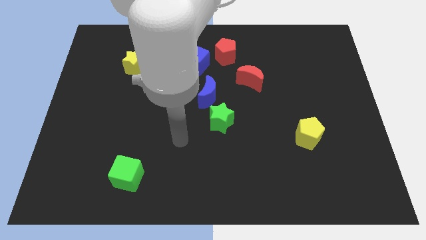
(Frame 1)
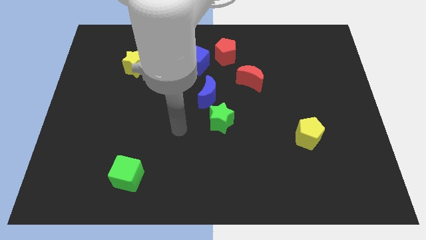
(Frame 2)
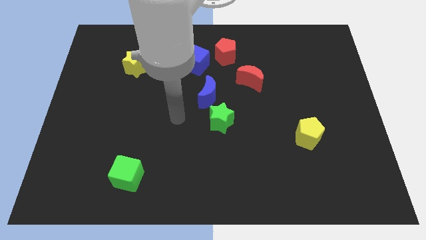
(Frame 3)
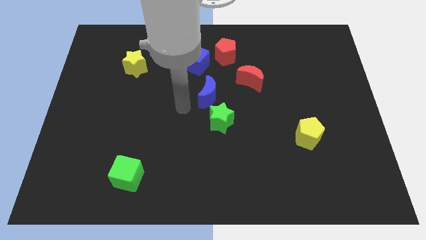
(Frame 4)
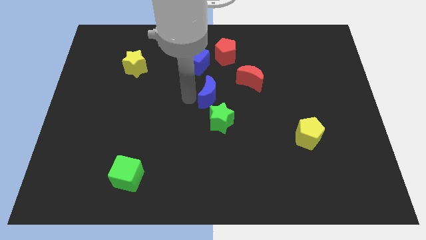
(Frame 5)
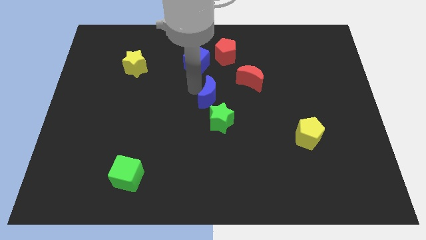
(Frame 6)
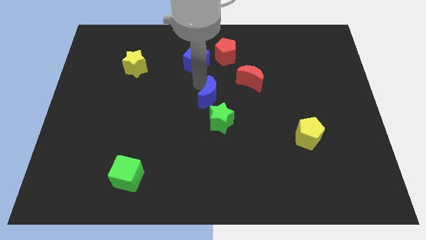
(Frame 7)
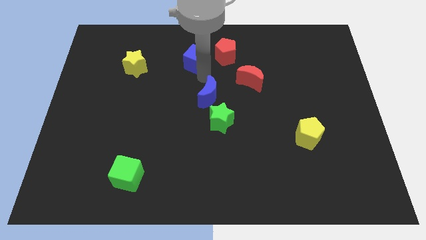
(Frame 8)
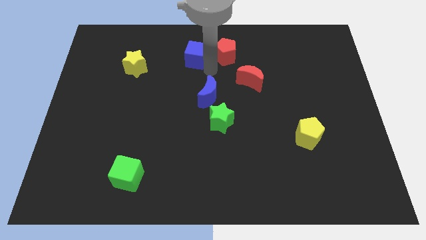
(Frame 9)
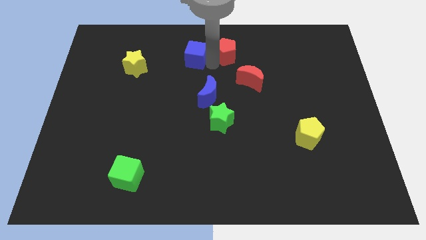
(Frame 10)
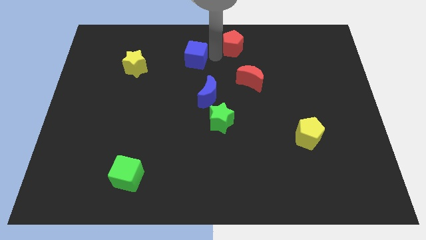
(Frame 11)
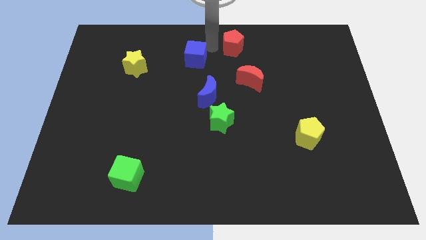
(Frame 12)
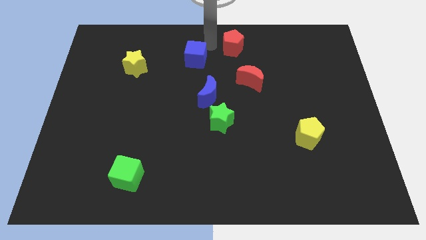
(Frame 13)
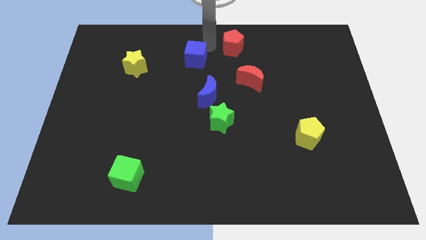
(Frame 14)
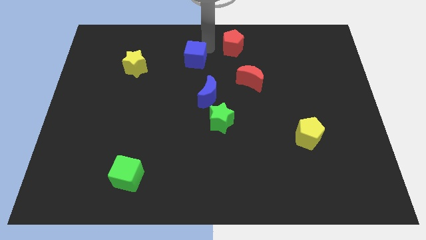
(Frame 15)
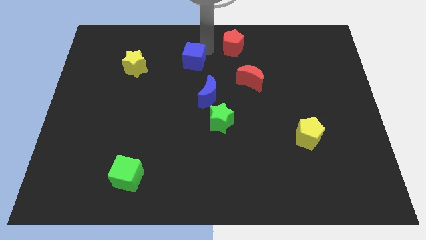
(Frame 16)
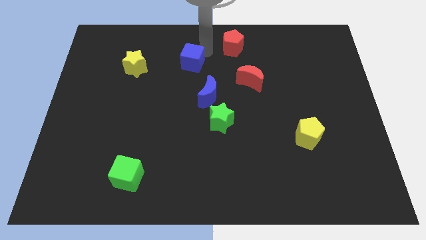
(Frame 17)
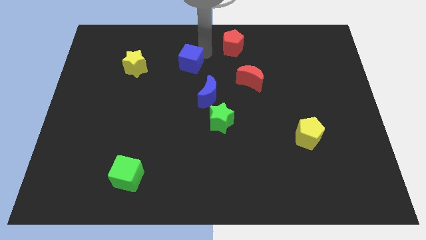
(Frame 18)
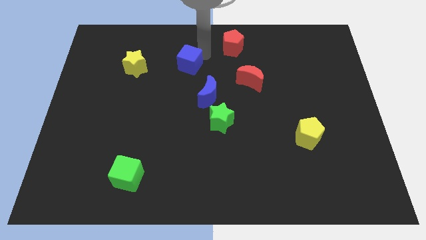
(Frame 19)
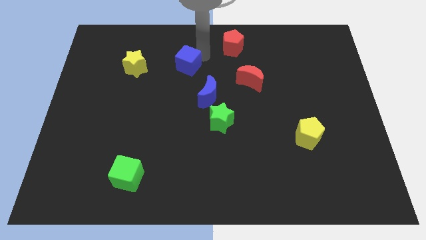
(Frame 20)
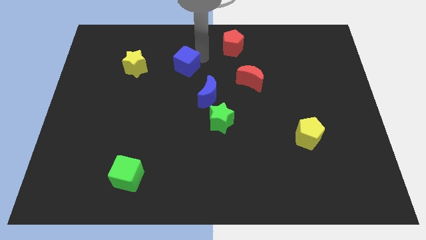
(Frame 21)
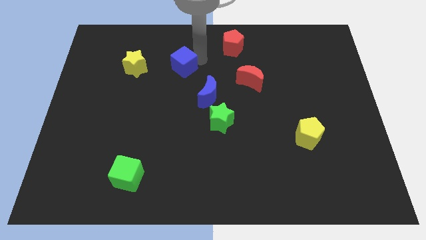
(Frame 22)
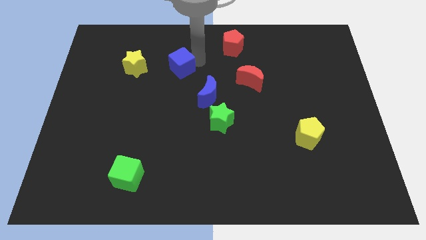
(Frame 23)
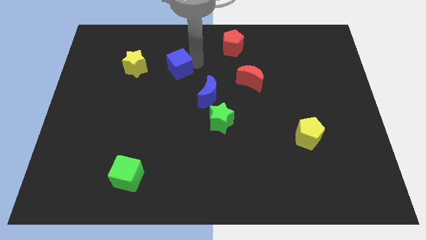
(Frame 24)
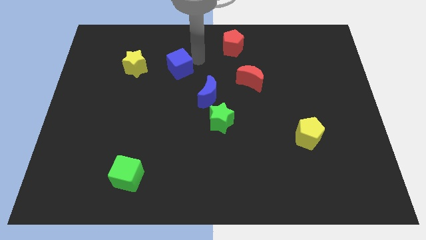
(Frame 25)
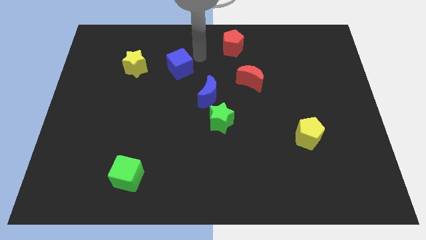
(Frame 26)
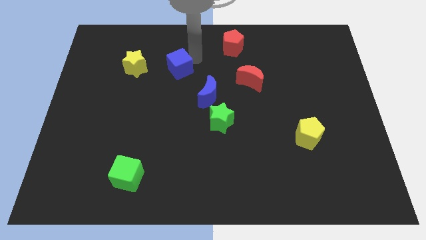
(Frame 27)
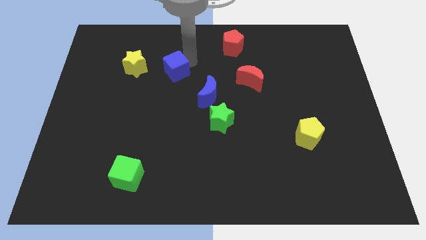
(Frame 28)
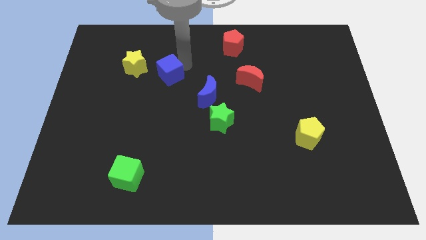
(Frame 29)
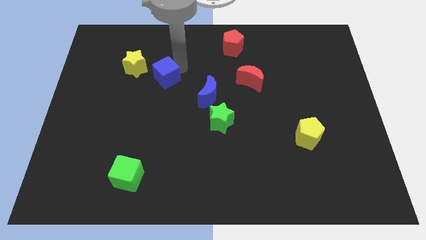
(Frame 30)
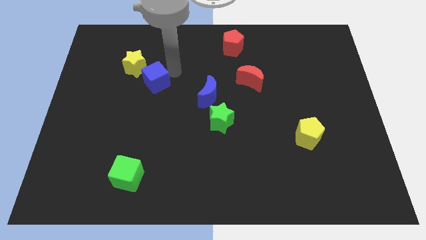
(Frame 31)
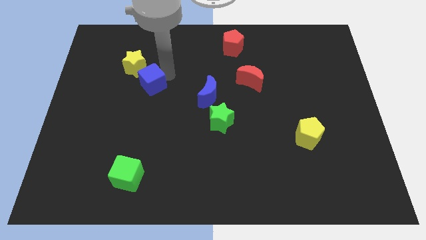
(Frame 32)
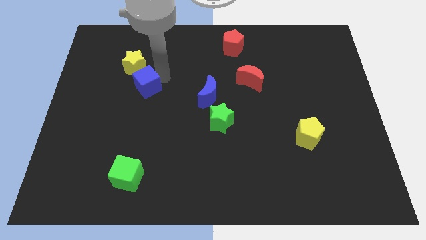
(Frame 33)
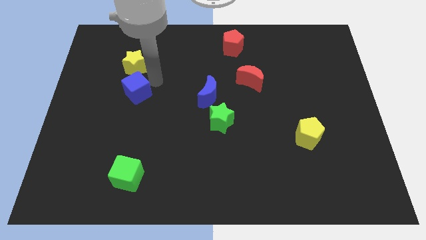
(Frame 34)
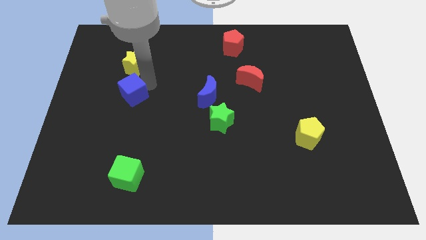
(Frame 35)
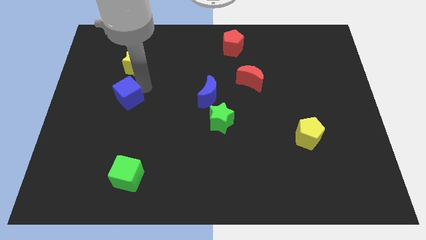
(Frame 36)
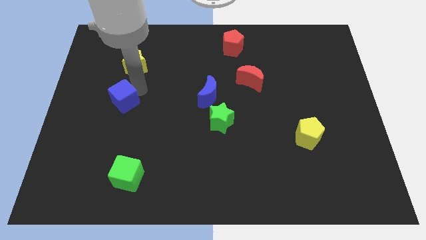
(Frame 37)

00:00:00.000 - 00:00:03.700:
move the blue cube down and to the left diagonally

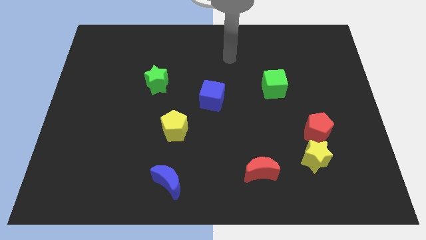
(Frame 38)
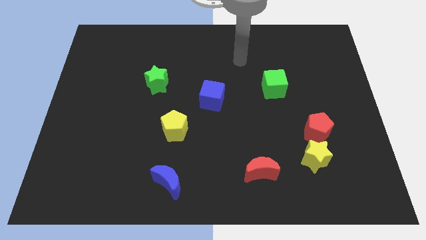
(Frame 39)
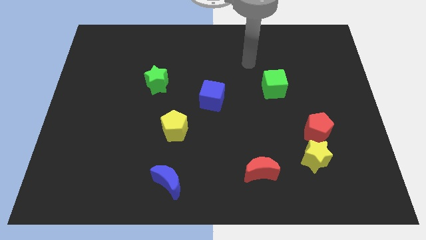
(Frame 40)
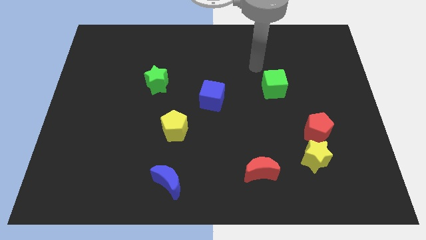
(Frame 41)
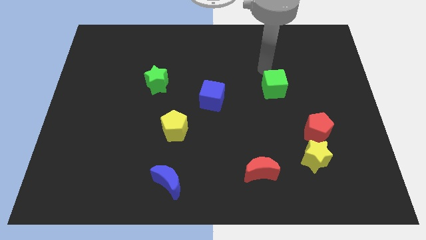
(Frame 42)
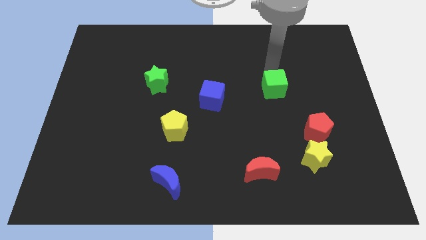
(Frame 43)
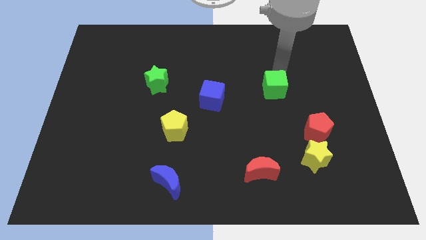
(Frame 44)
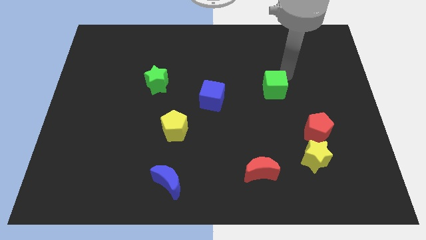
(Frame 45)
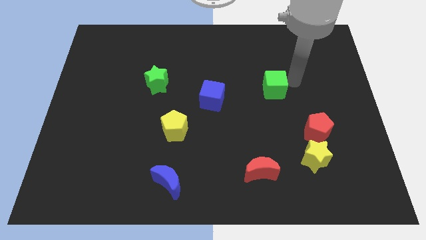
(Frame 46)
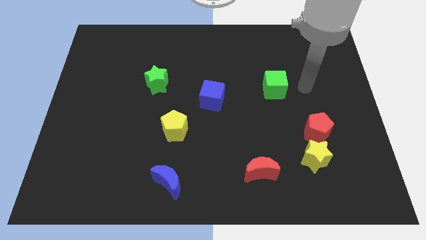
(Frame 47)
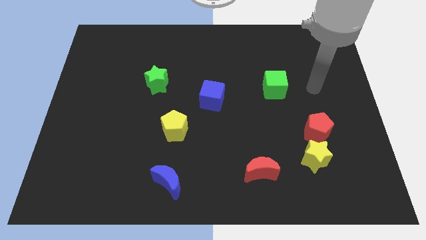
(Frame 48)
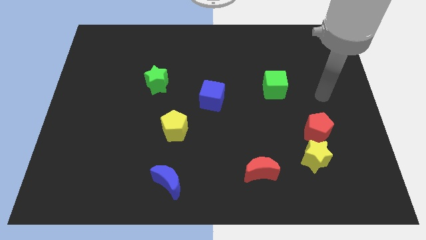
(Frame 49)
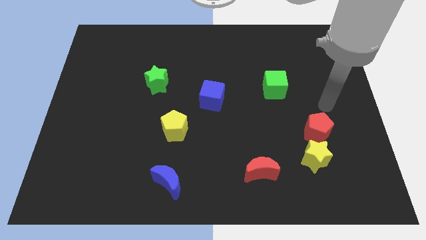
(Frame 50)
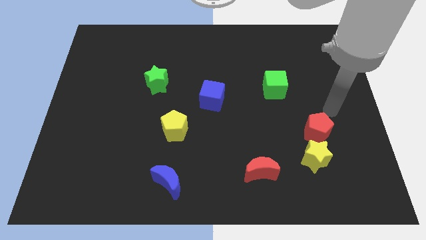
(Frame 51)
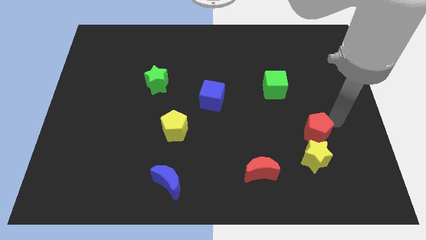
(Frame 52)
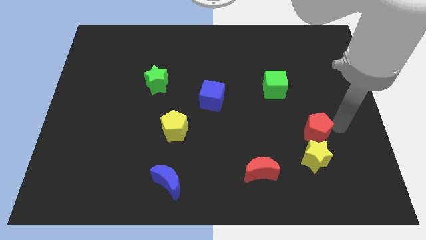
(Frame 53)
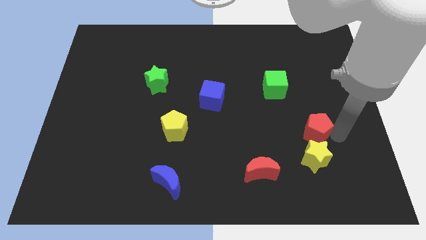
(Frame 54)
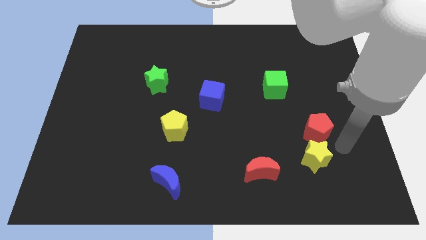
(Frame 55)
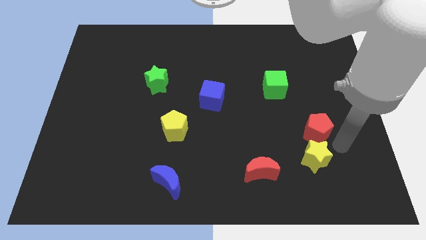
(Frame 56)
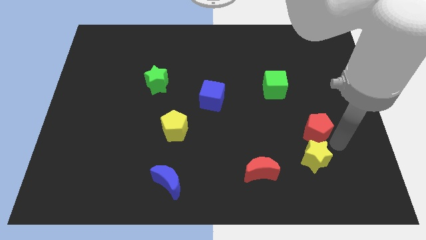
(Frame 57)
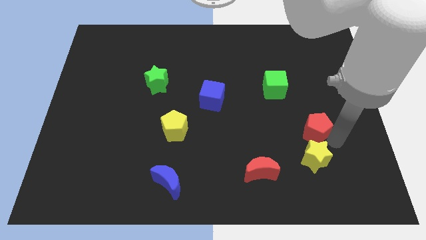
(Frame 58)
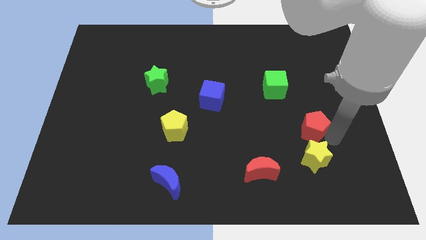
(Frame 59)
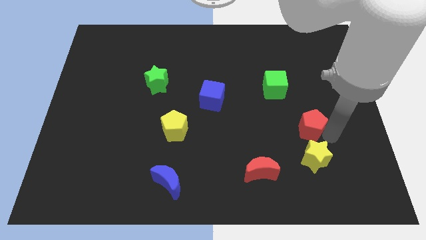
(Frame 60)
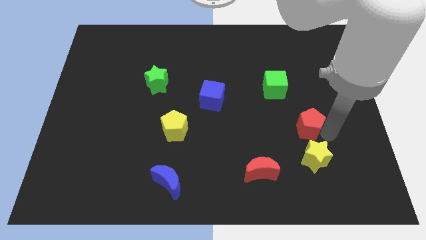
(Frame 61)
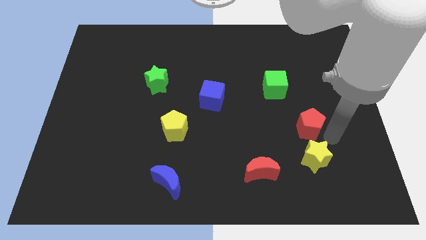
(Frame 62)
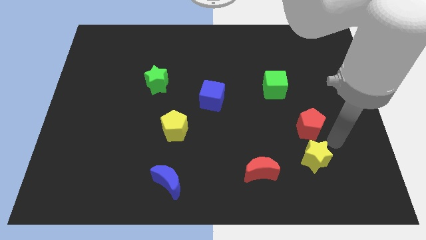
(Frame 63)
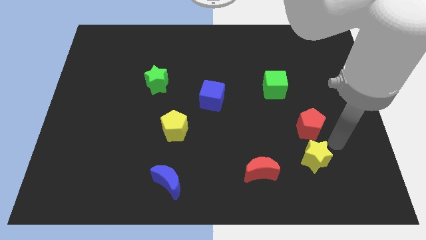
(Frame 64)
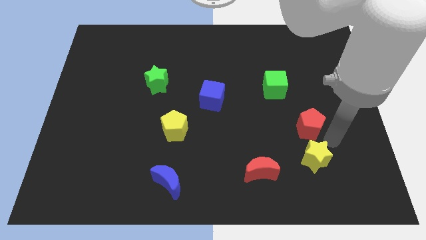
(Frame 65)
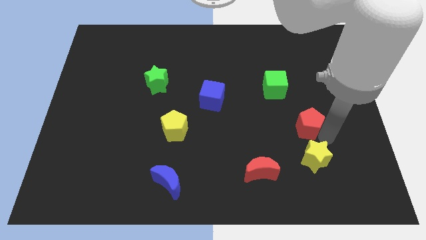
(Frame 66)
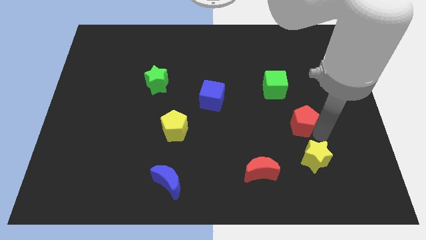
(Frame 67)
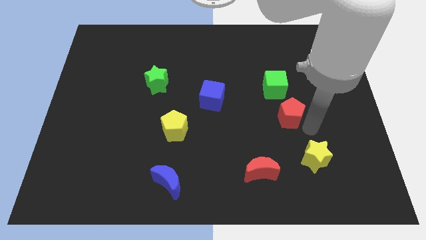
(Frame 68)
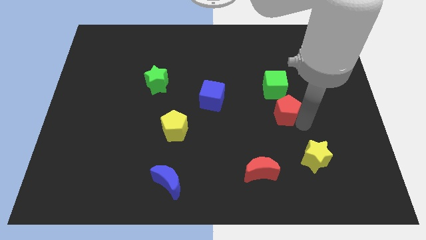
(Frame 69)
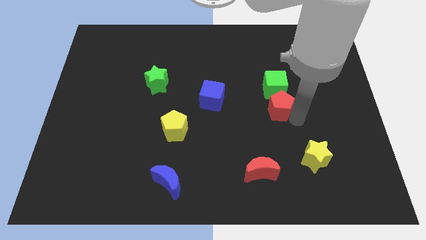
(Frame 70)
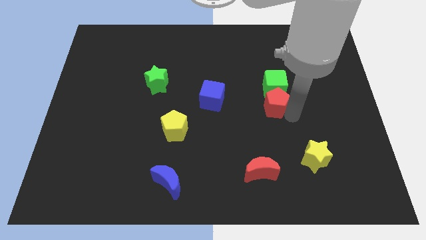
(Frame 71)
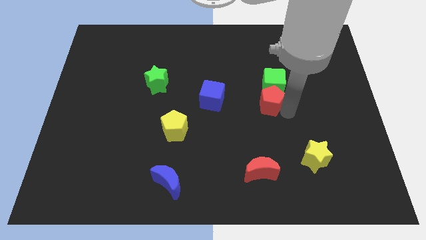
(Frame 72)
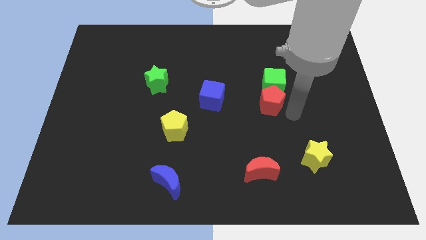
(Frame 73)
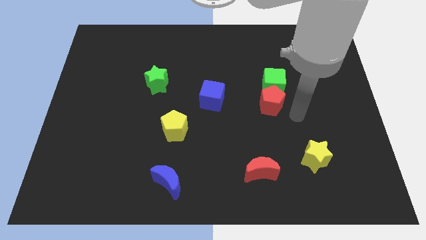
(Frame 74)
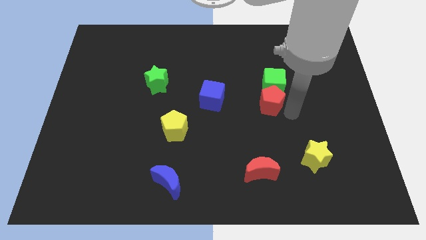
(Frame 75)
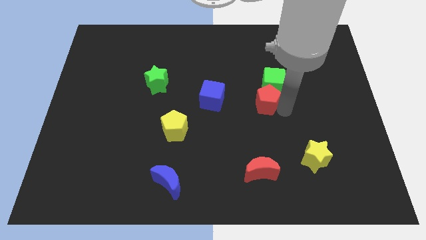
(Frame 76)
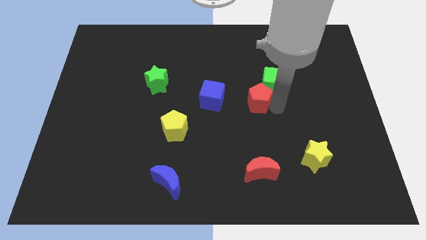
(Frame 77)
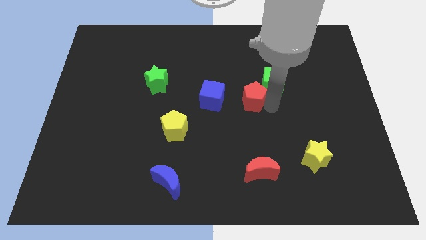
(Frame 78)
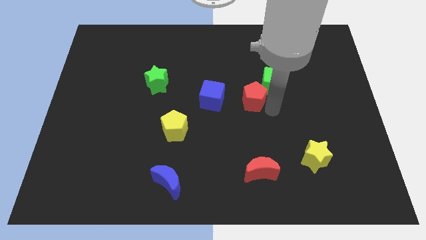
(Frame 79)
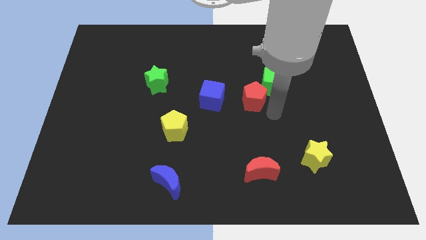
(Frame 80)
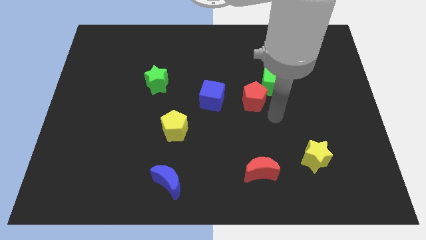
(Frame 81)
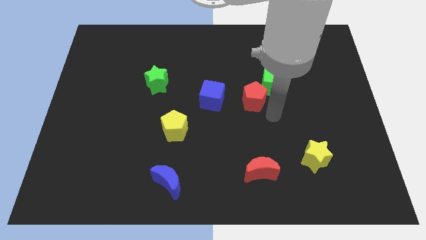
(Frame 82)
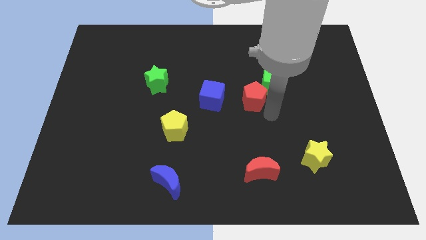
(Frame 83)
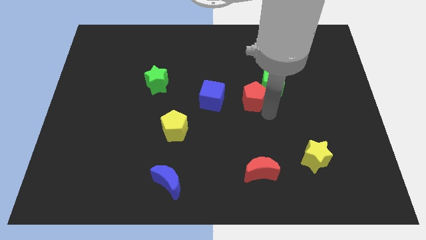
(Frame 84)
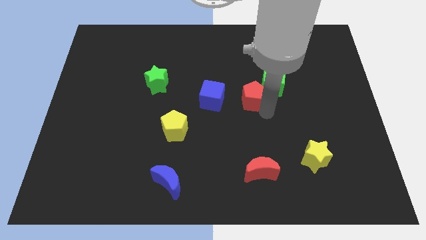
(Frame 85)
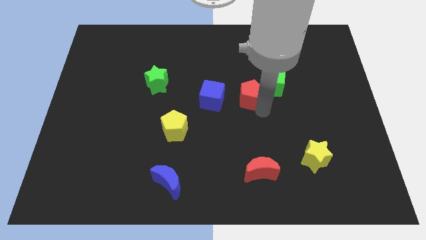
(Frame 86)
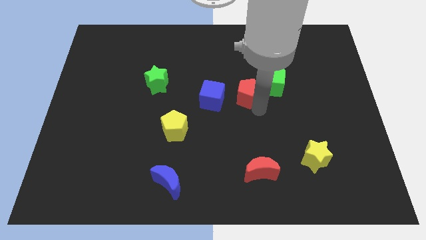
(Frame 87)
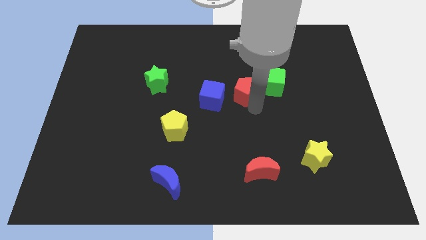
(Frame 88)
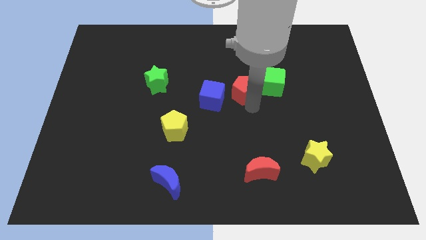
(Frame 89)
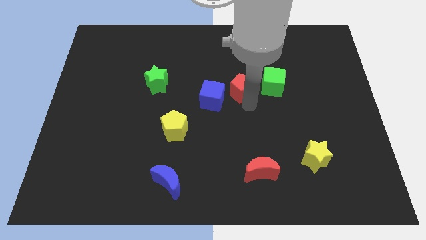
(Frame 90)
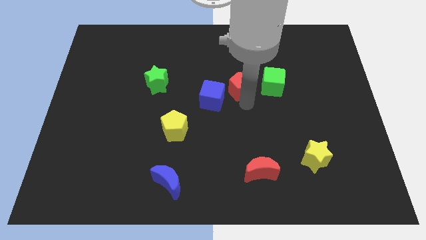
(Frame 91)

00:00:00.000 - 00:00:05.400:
push the red pentagon up and then left
